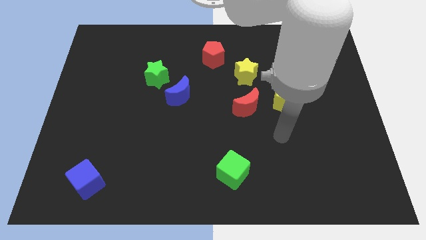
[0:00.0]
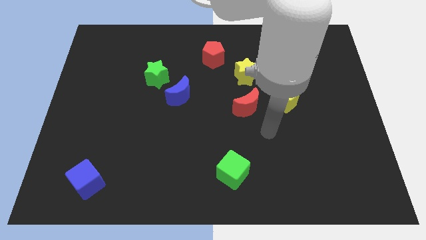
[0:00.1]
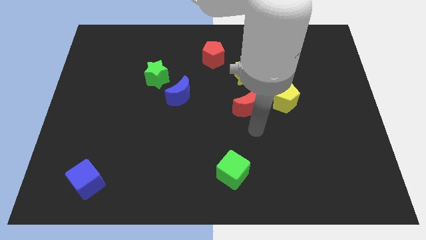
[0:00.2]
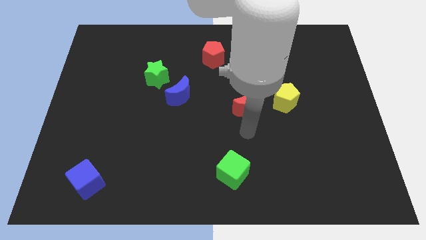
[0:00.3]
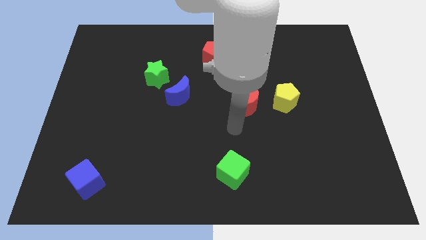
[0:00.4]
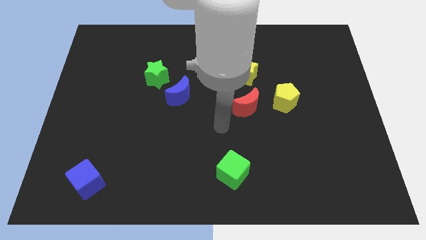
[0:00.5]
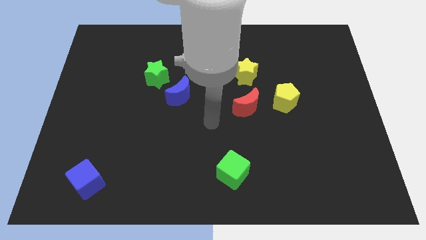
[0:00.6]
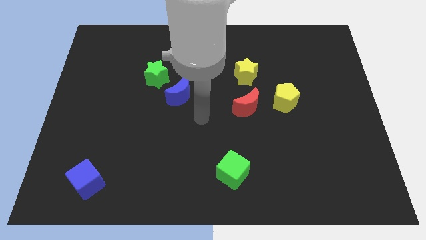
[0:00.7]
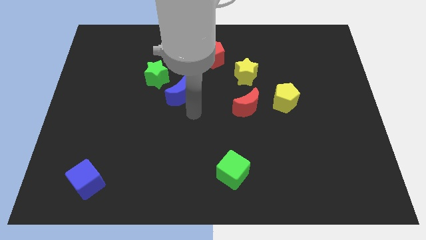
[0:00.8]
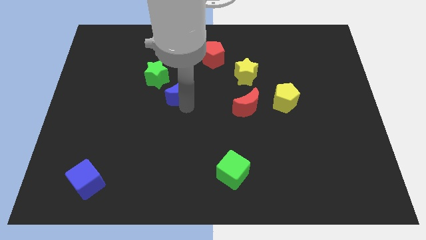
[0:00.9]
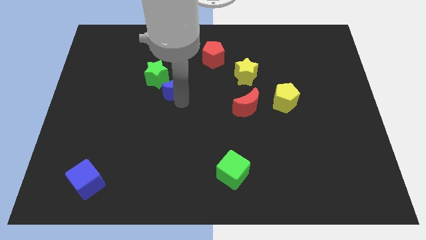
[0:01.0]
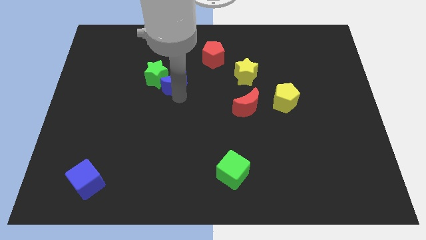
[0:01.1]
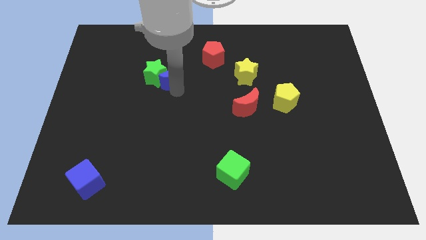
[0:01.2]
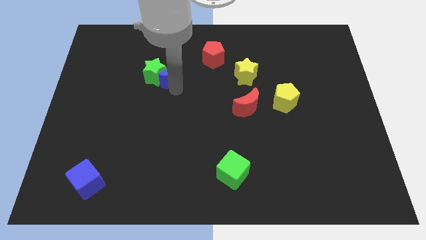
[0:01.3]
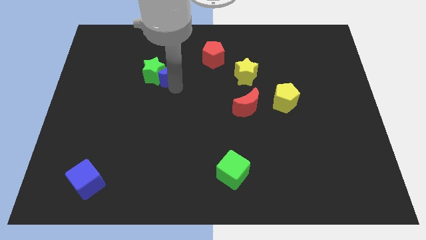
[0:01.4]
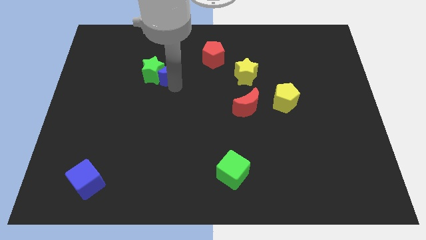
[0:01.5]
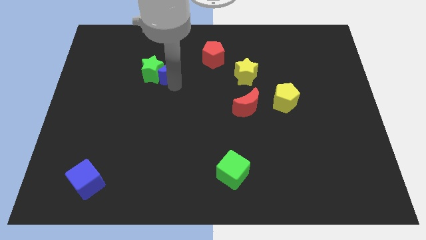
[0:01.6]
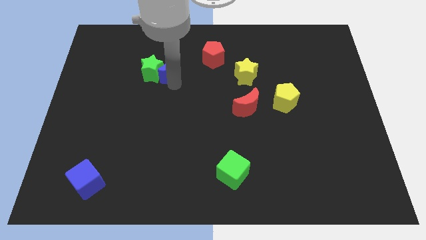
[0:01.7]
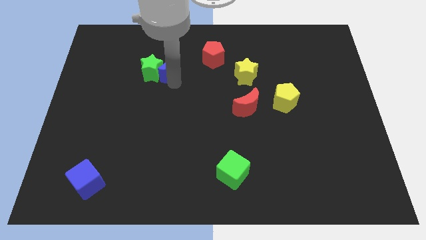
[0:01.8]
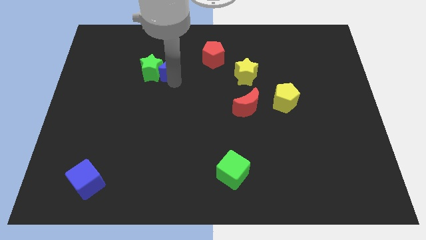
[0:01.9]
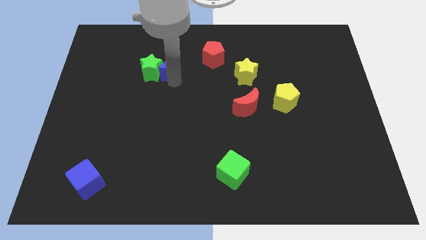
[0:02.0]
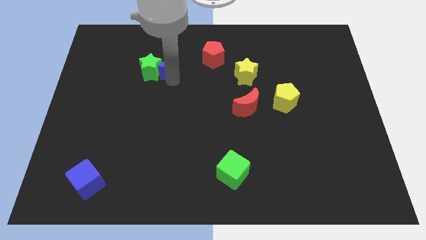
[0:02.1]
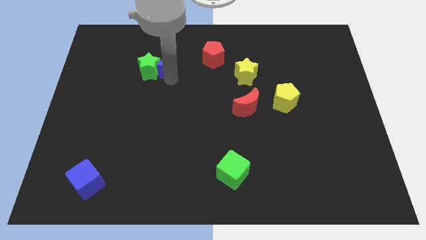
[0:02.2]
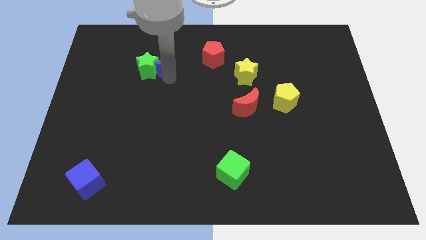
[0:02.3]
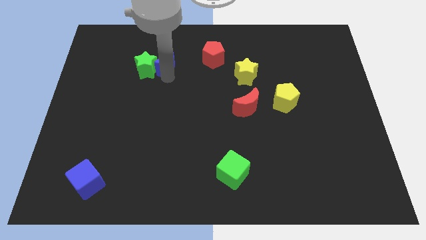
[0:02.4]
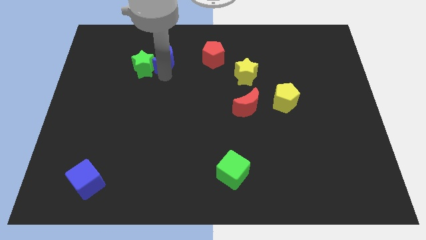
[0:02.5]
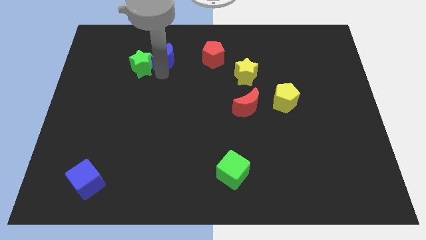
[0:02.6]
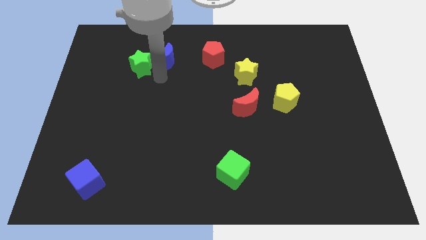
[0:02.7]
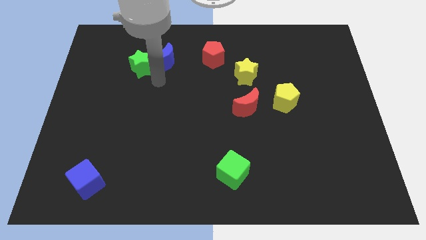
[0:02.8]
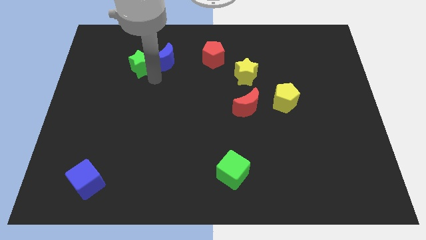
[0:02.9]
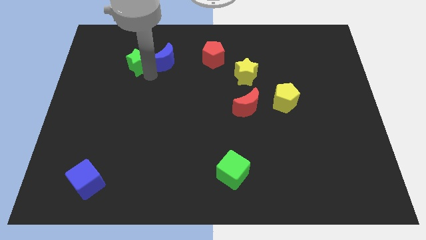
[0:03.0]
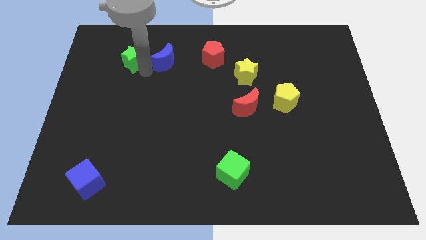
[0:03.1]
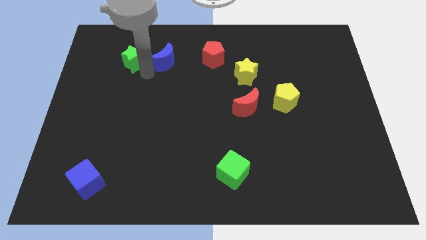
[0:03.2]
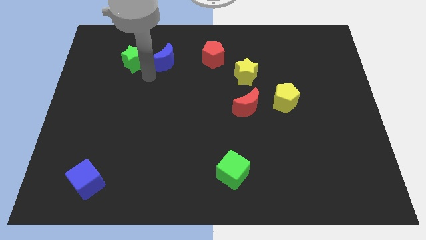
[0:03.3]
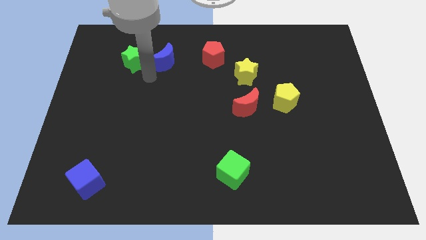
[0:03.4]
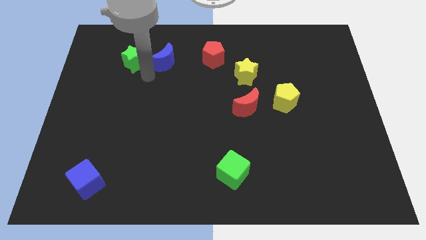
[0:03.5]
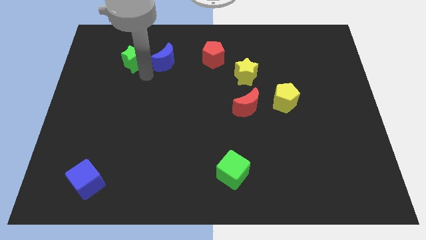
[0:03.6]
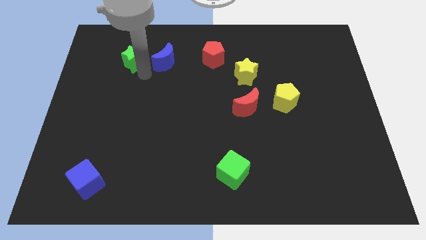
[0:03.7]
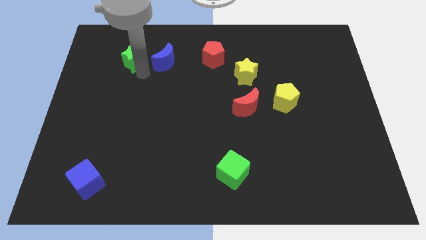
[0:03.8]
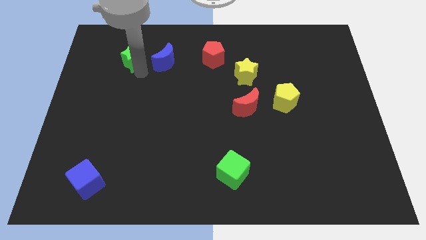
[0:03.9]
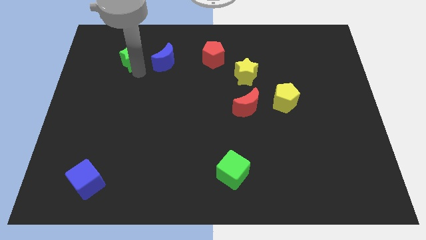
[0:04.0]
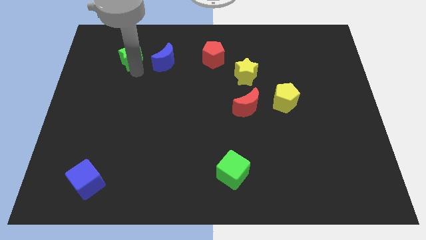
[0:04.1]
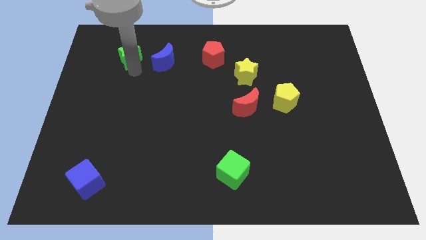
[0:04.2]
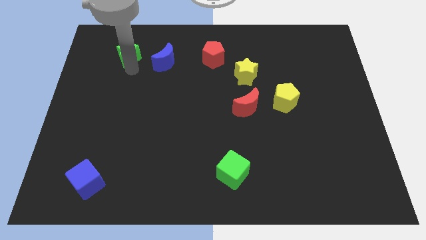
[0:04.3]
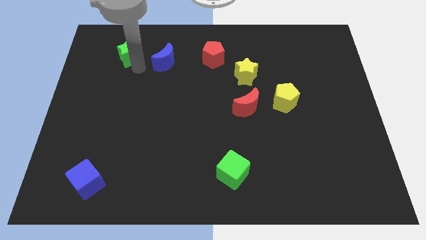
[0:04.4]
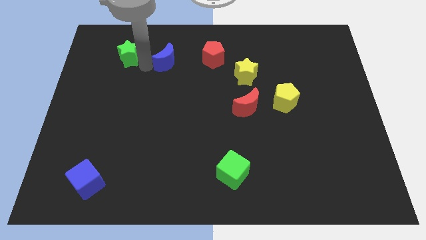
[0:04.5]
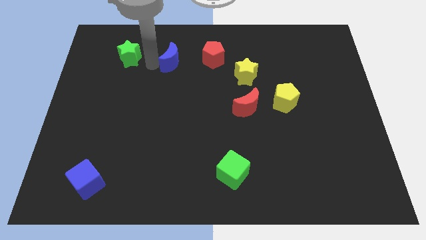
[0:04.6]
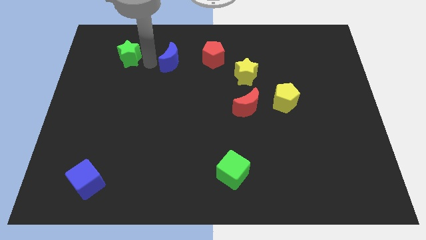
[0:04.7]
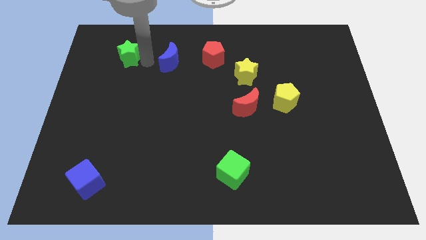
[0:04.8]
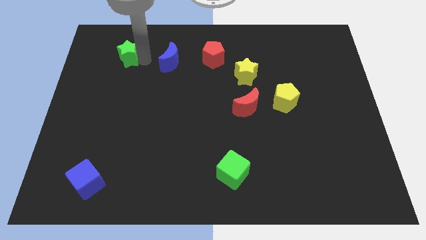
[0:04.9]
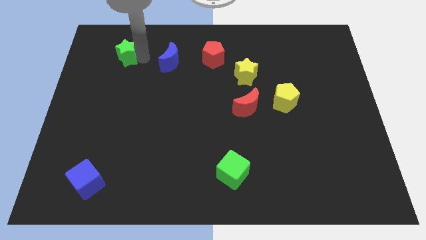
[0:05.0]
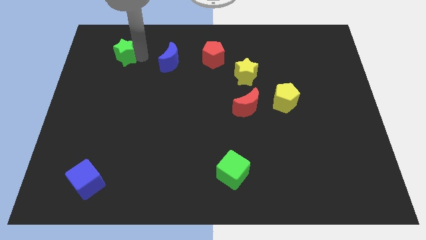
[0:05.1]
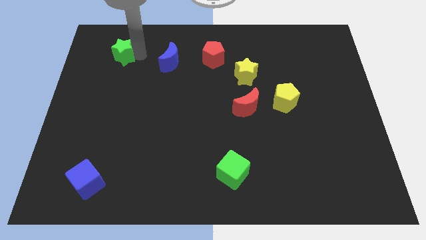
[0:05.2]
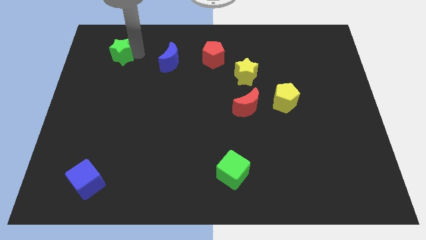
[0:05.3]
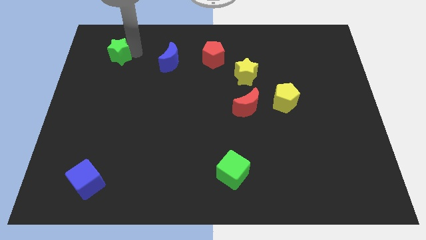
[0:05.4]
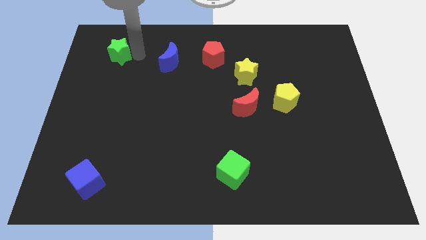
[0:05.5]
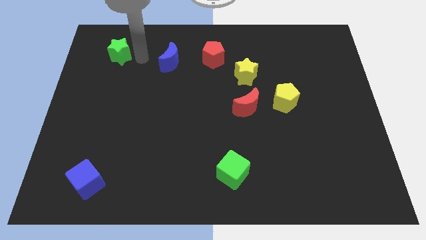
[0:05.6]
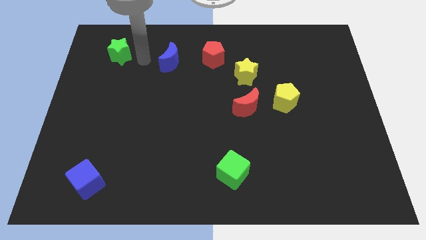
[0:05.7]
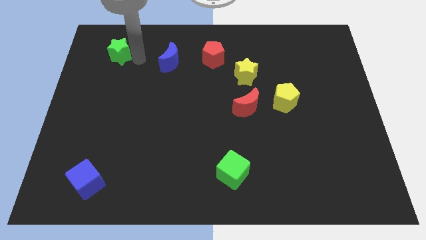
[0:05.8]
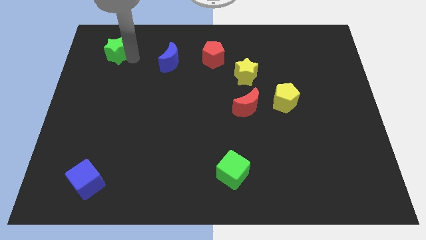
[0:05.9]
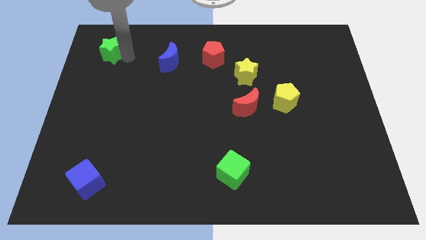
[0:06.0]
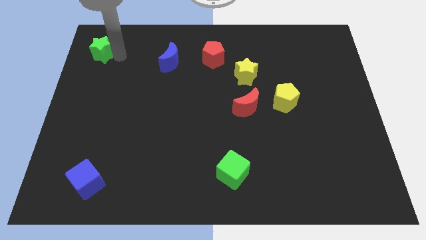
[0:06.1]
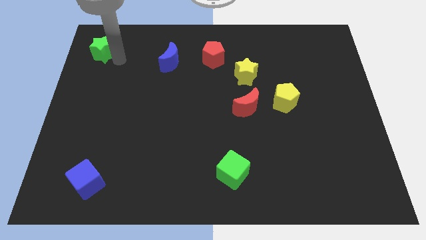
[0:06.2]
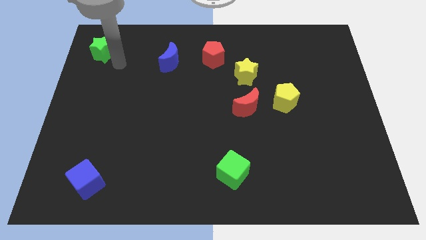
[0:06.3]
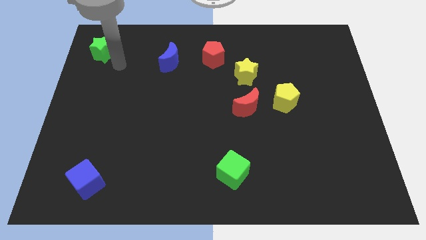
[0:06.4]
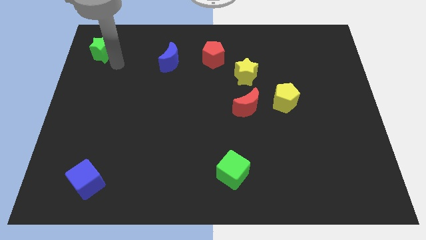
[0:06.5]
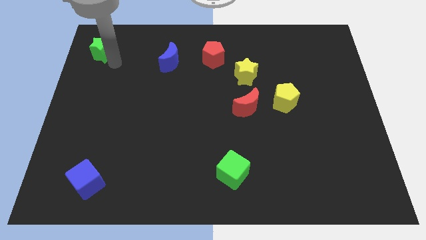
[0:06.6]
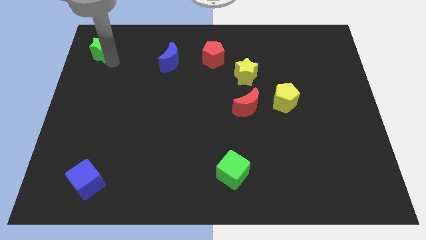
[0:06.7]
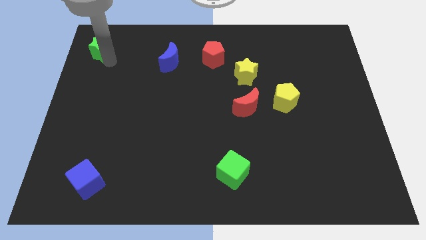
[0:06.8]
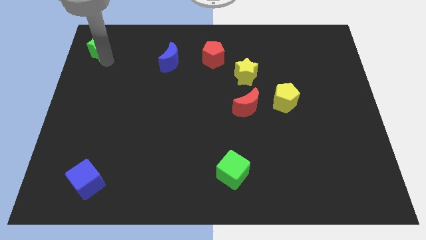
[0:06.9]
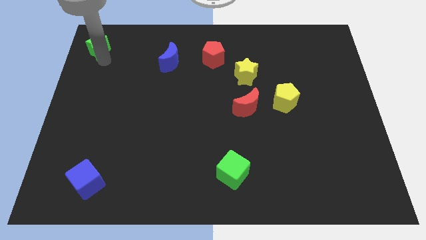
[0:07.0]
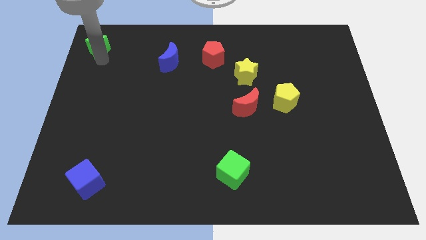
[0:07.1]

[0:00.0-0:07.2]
put the green star to the upper left corner
